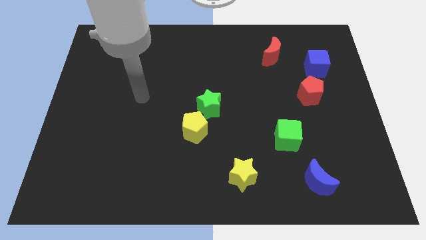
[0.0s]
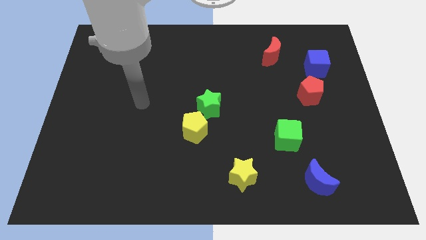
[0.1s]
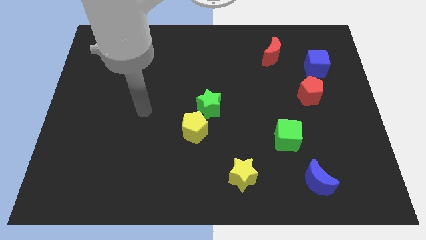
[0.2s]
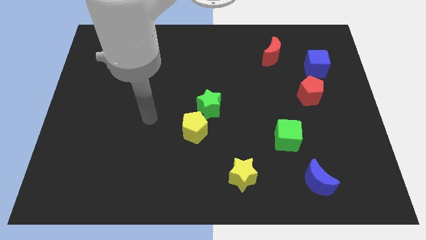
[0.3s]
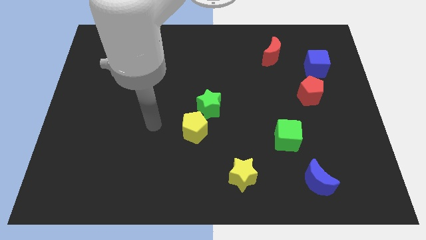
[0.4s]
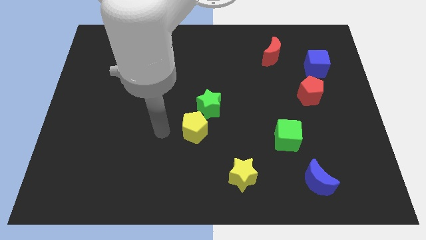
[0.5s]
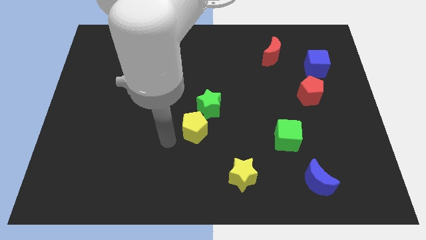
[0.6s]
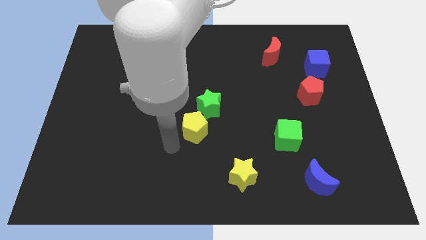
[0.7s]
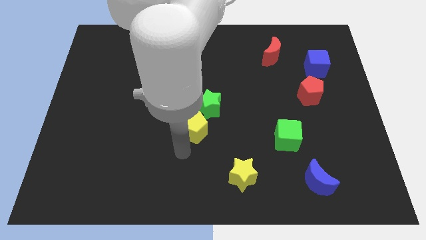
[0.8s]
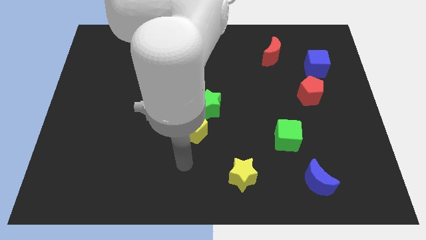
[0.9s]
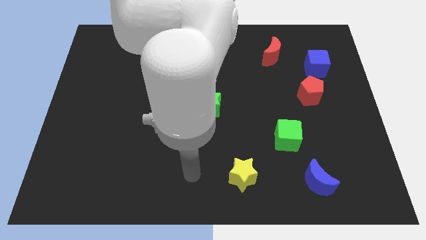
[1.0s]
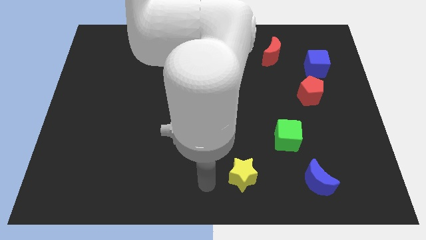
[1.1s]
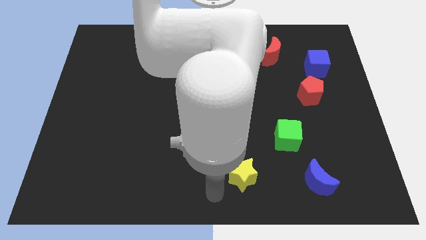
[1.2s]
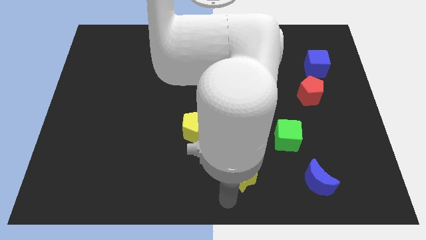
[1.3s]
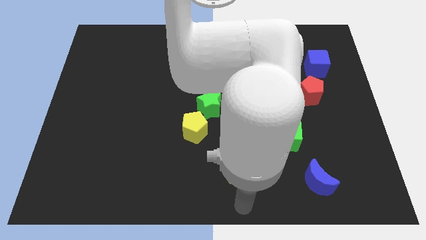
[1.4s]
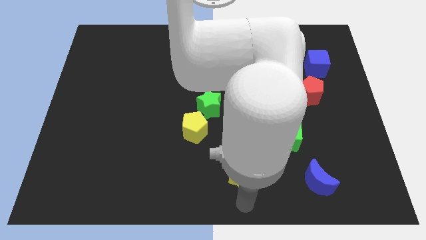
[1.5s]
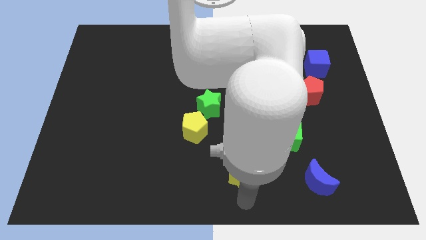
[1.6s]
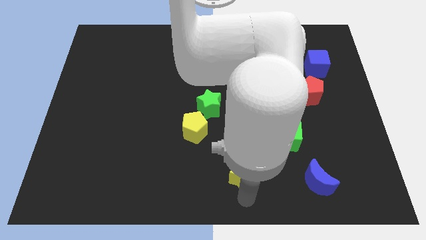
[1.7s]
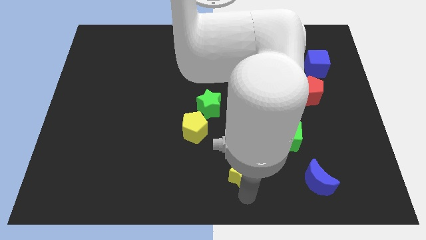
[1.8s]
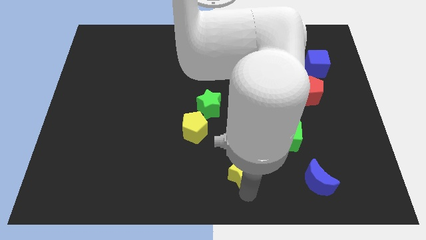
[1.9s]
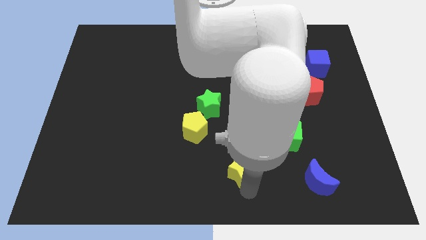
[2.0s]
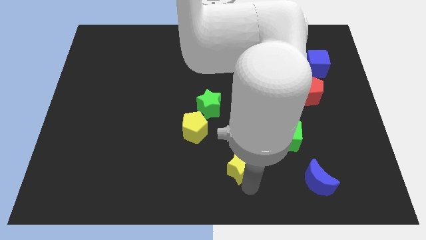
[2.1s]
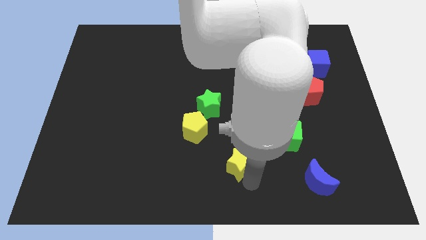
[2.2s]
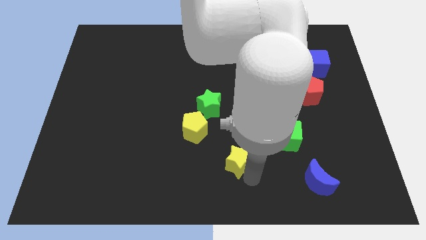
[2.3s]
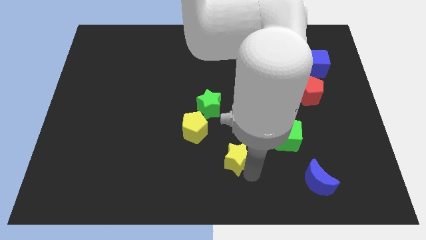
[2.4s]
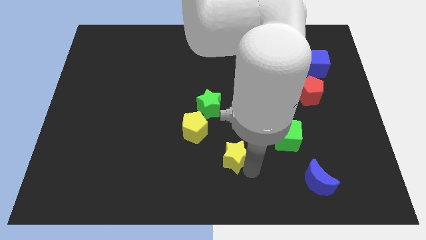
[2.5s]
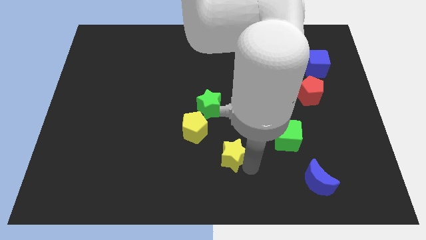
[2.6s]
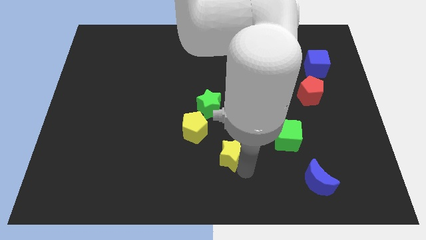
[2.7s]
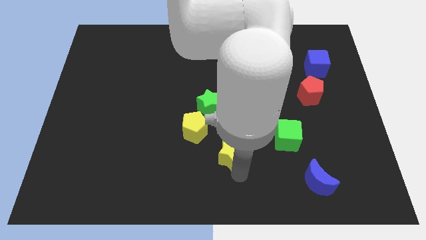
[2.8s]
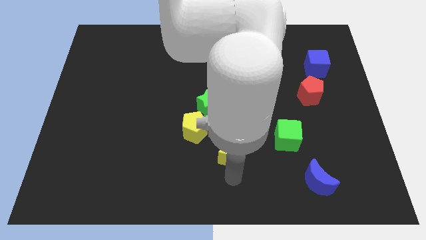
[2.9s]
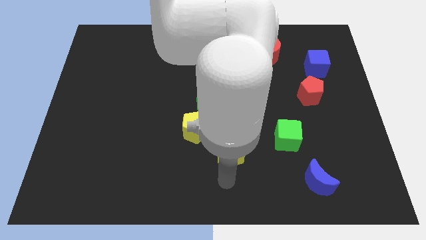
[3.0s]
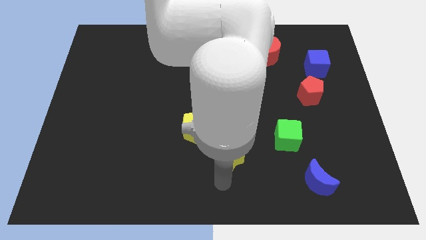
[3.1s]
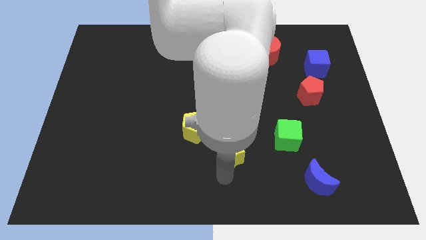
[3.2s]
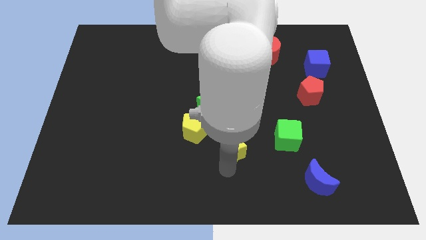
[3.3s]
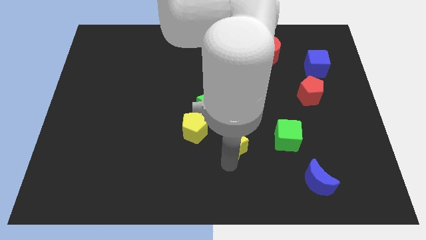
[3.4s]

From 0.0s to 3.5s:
push the yellow star upwards a little

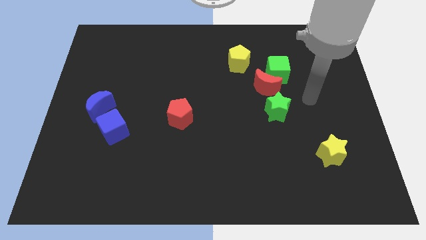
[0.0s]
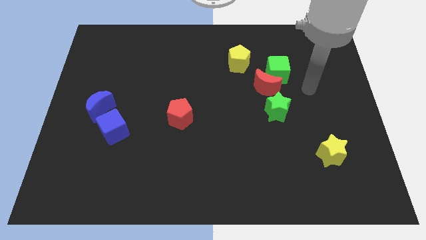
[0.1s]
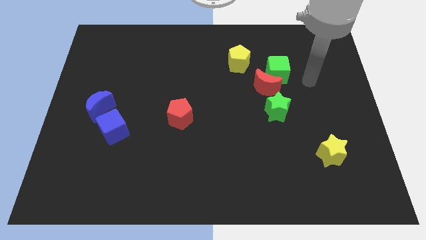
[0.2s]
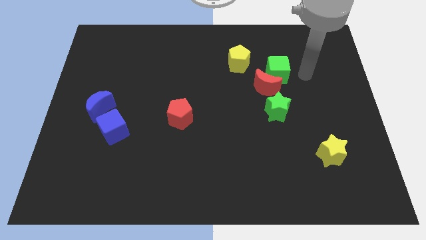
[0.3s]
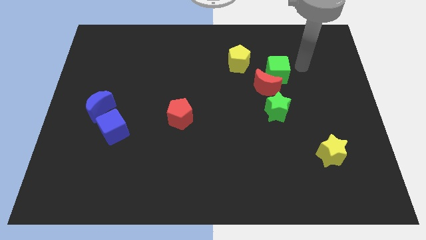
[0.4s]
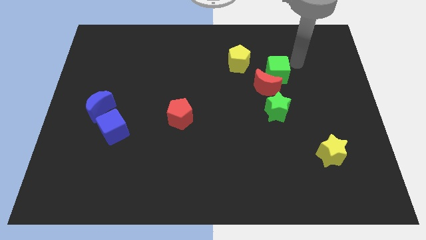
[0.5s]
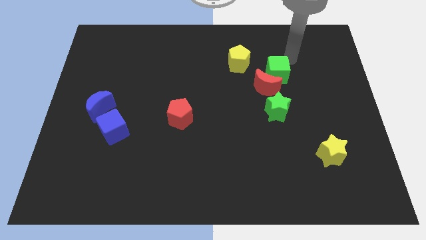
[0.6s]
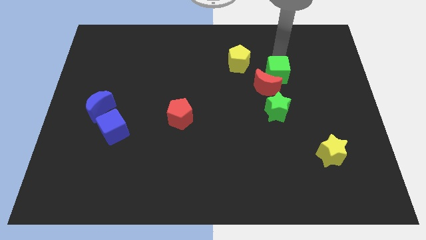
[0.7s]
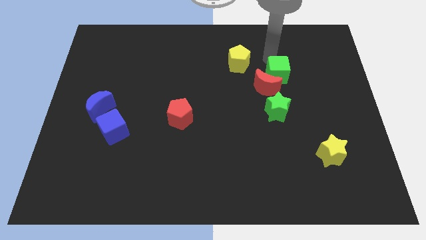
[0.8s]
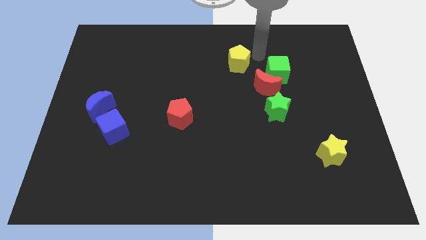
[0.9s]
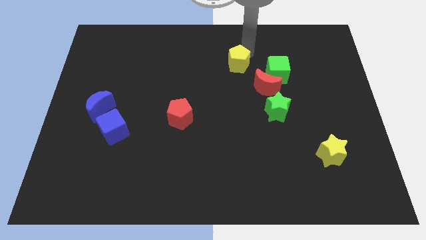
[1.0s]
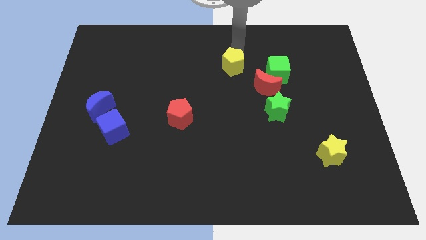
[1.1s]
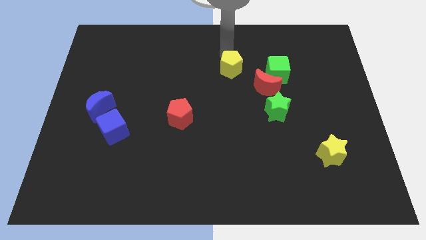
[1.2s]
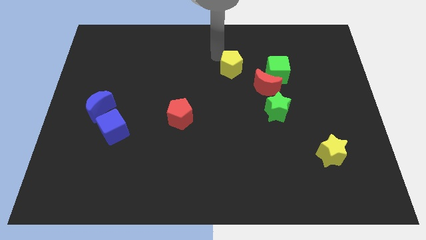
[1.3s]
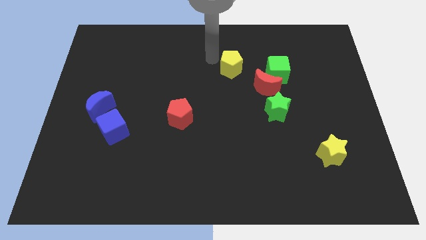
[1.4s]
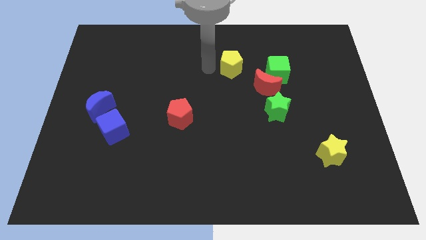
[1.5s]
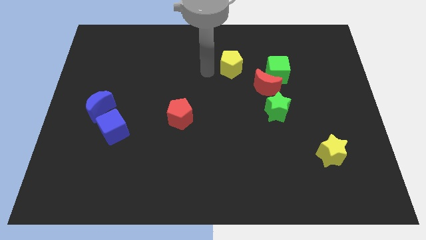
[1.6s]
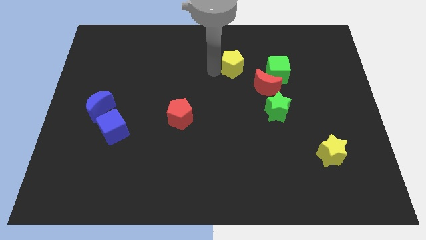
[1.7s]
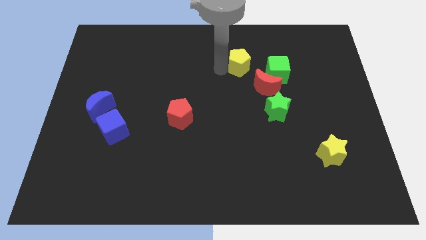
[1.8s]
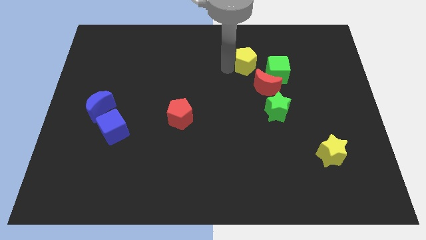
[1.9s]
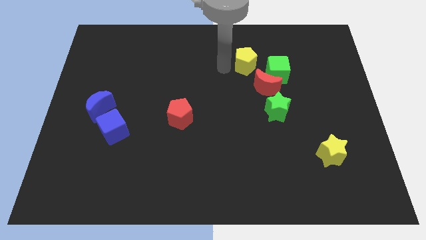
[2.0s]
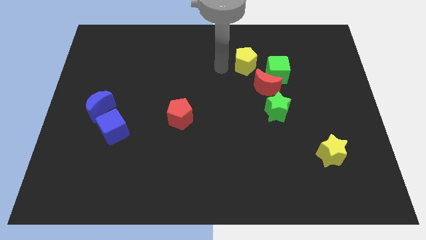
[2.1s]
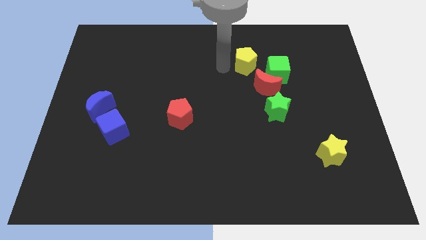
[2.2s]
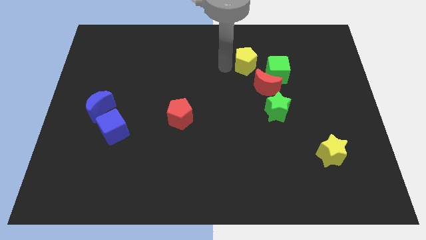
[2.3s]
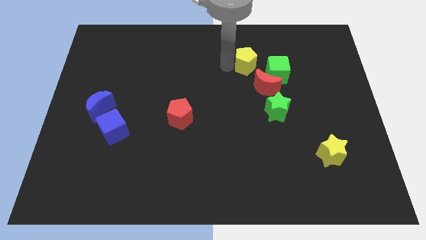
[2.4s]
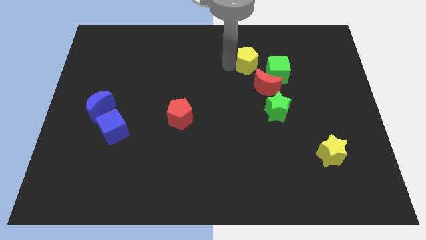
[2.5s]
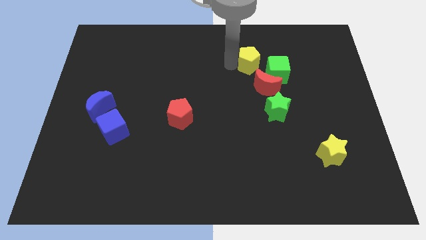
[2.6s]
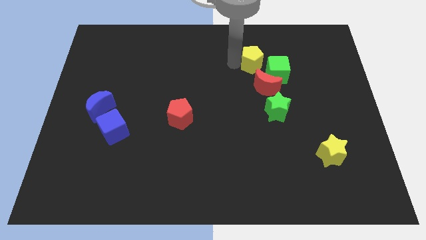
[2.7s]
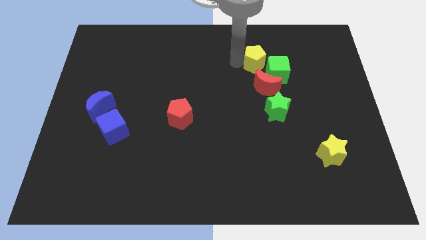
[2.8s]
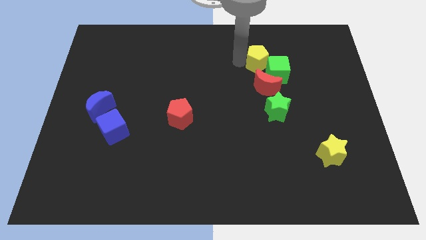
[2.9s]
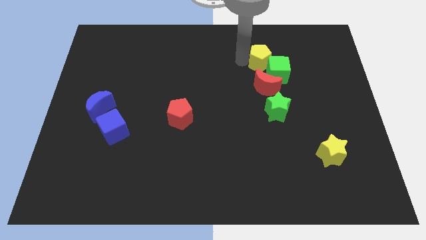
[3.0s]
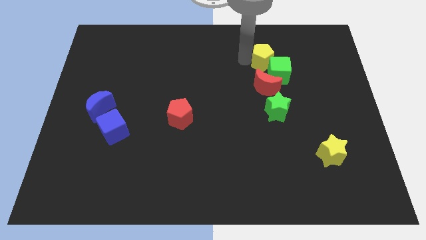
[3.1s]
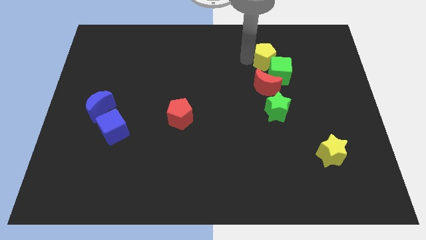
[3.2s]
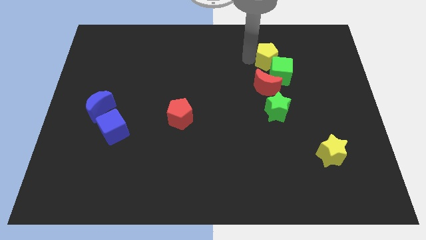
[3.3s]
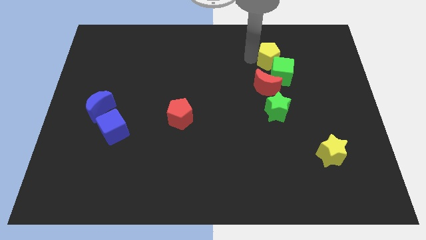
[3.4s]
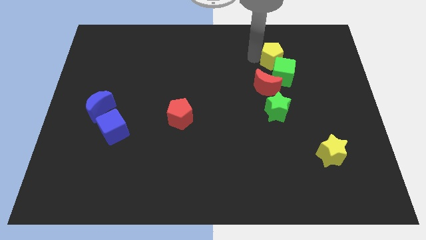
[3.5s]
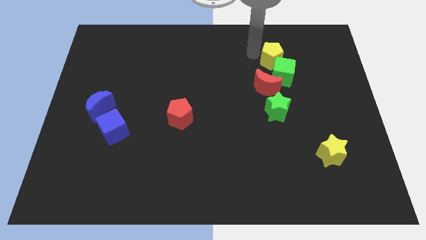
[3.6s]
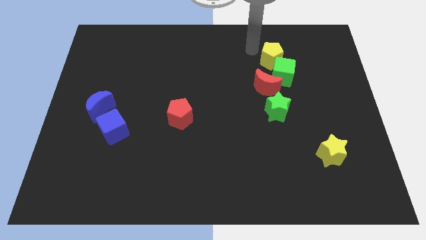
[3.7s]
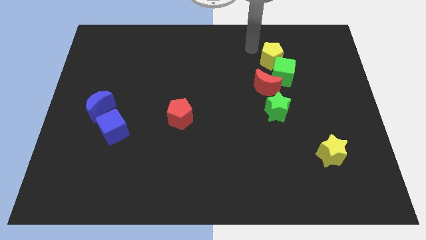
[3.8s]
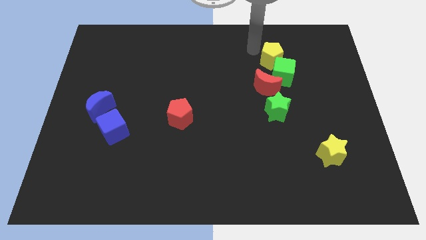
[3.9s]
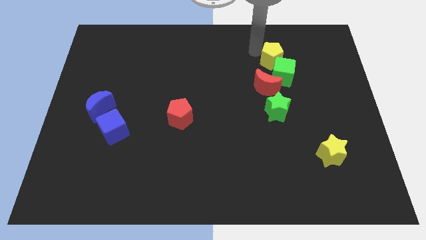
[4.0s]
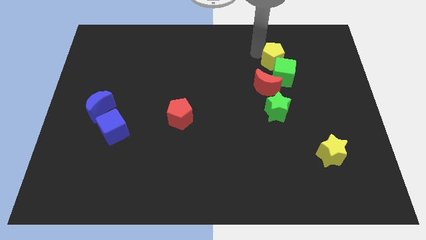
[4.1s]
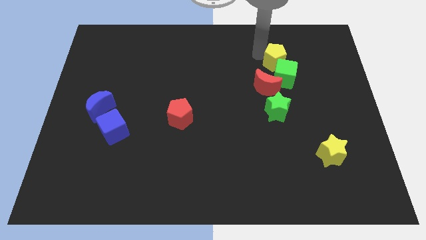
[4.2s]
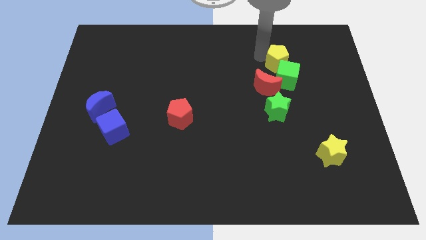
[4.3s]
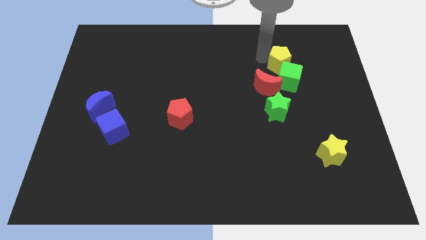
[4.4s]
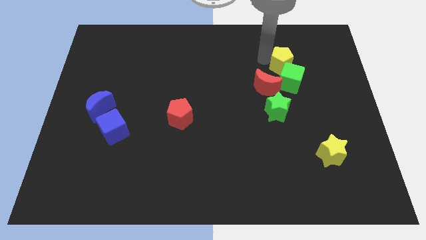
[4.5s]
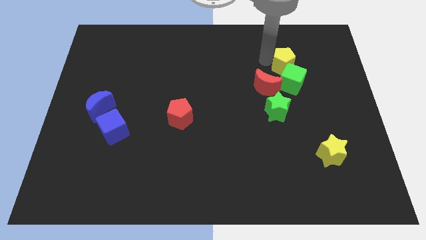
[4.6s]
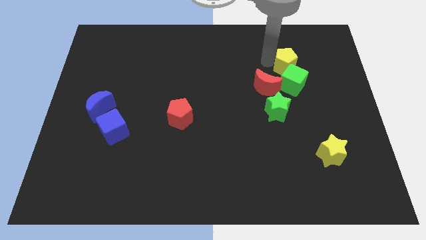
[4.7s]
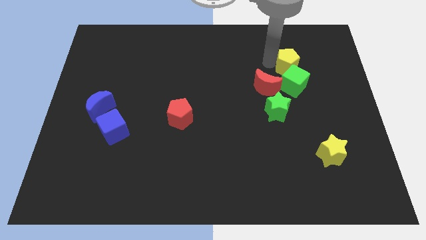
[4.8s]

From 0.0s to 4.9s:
move the yellow pentagon down and to the right a bit

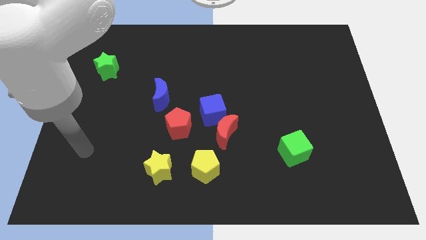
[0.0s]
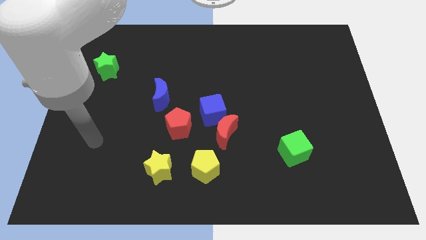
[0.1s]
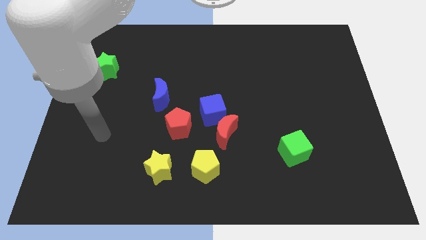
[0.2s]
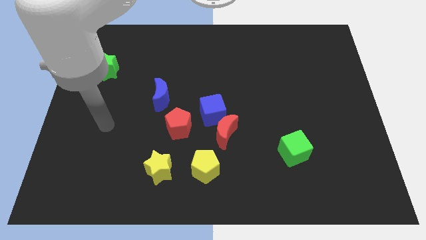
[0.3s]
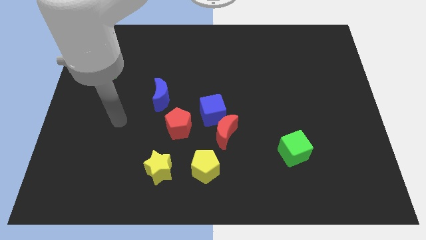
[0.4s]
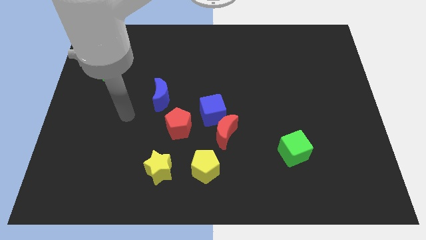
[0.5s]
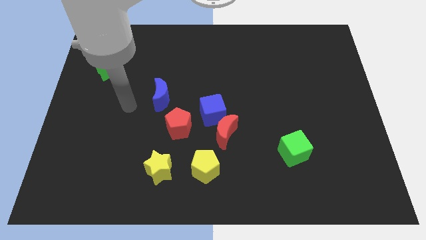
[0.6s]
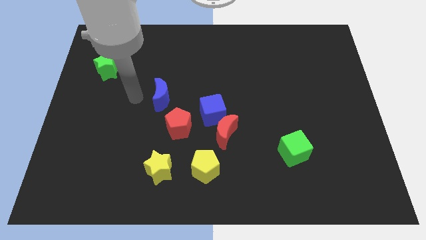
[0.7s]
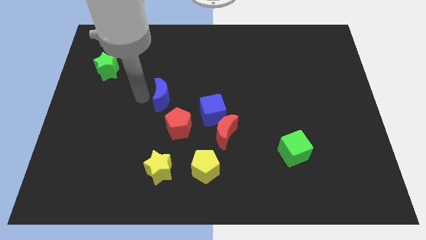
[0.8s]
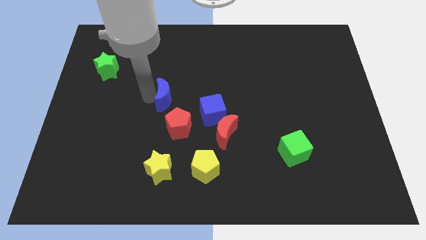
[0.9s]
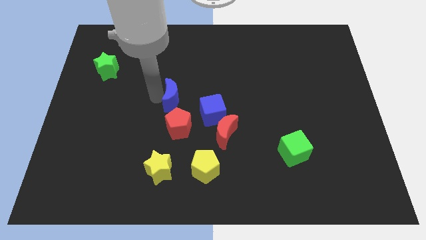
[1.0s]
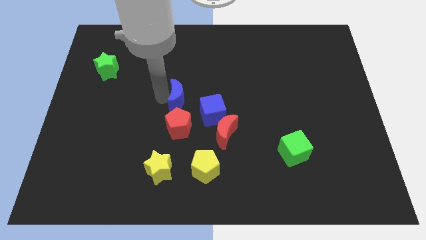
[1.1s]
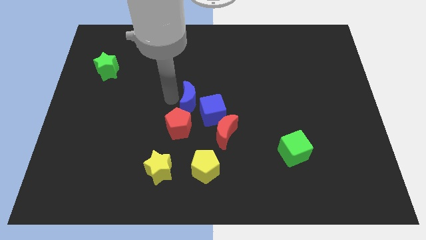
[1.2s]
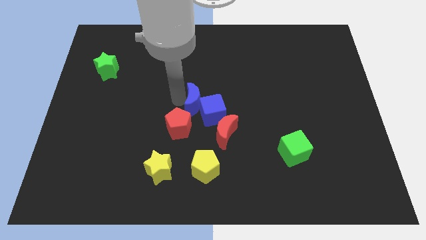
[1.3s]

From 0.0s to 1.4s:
push the blue moon to the right a little
